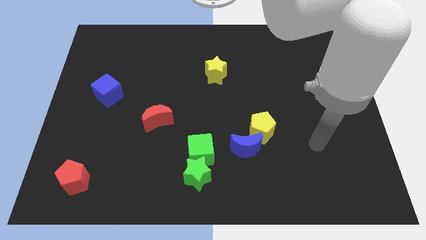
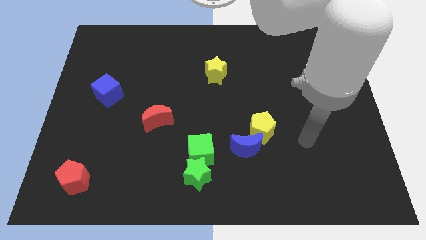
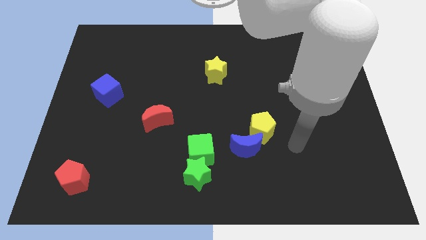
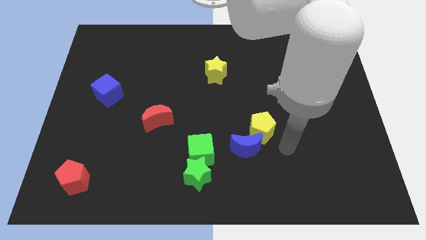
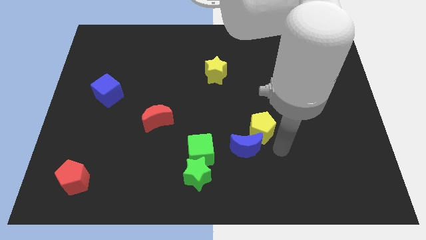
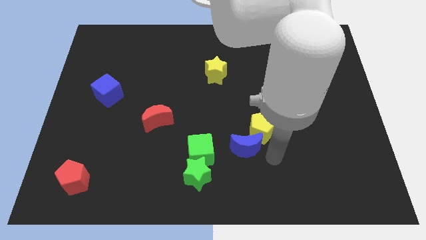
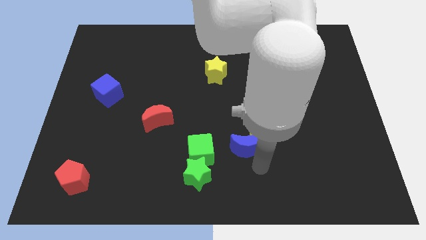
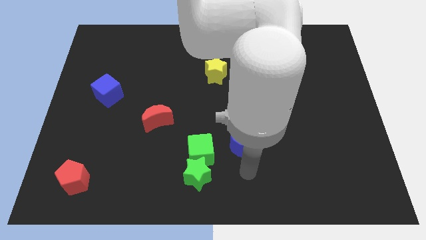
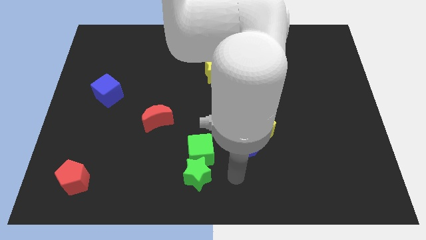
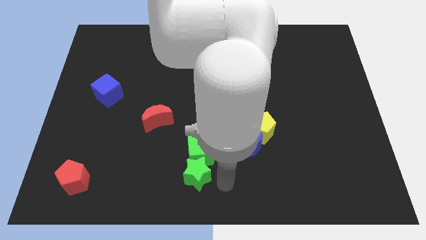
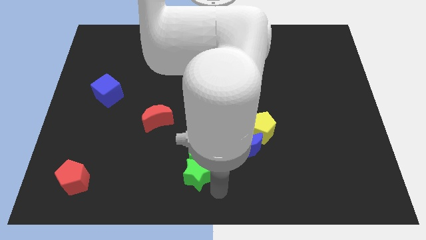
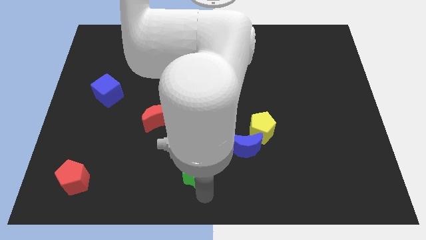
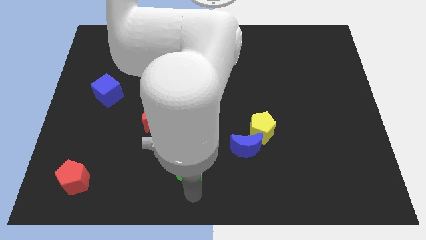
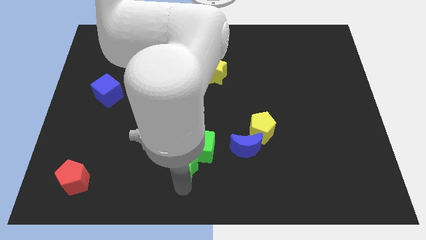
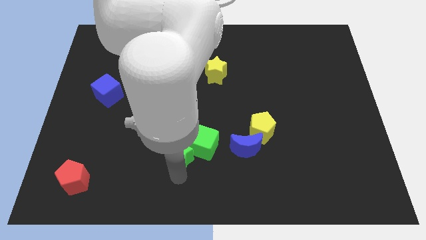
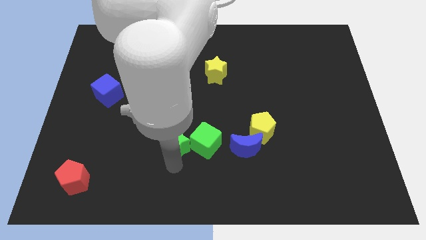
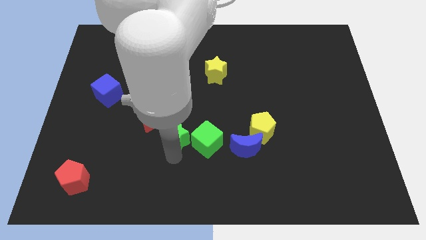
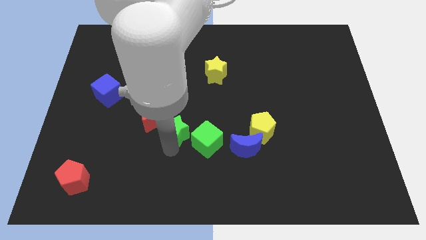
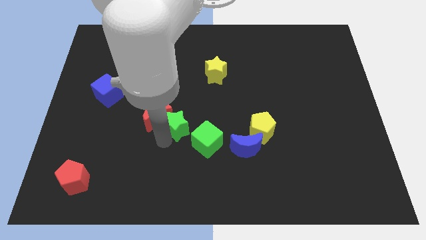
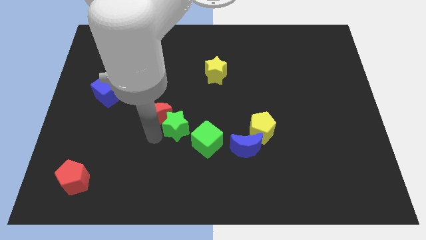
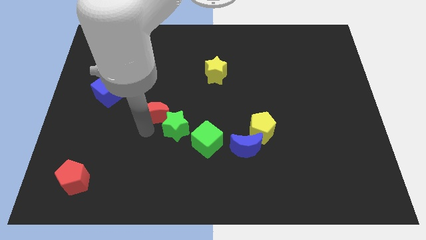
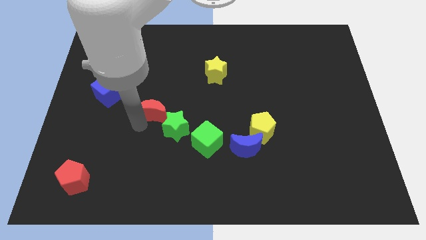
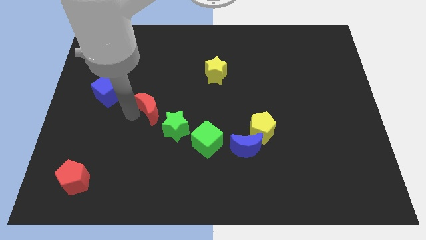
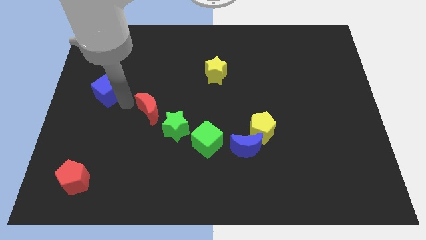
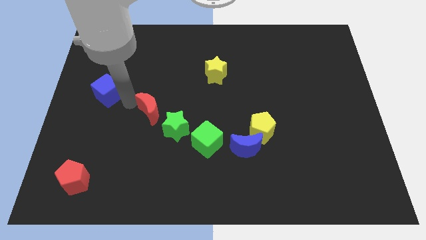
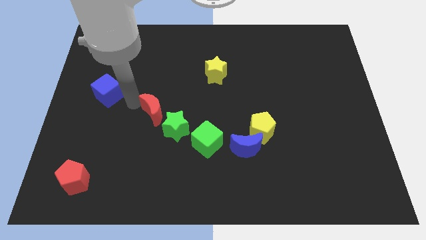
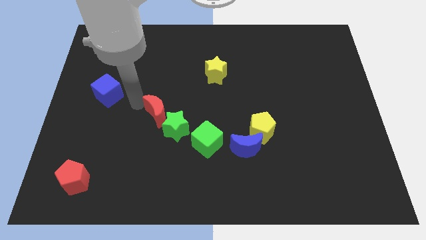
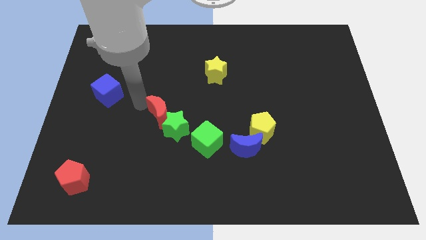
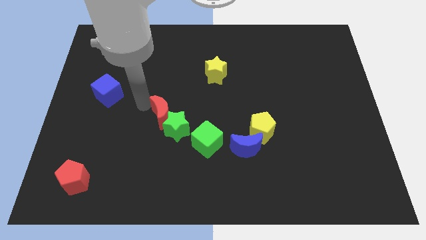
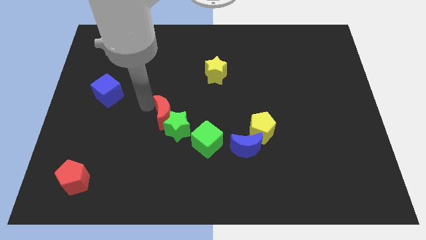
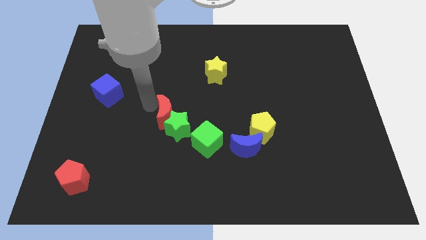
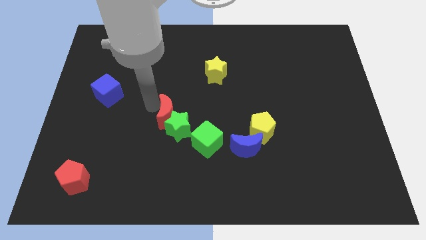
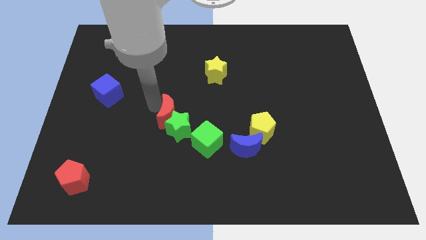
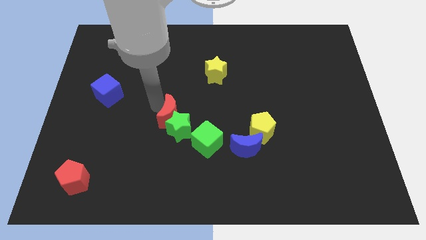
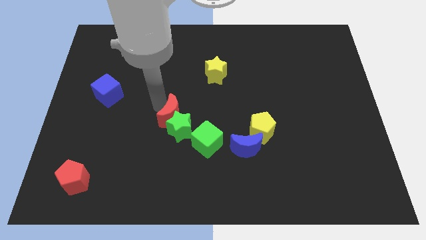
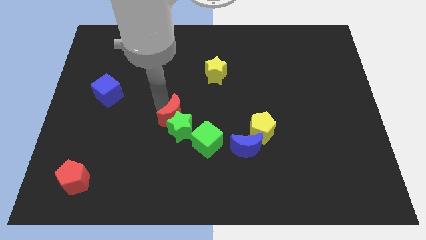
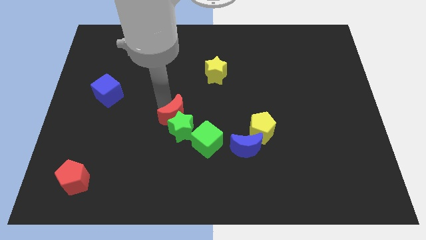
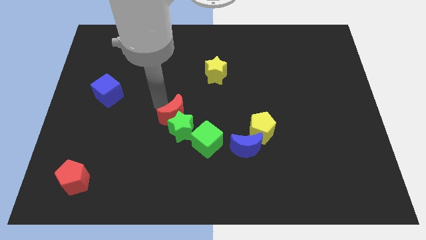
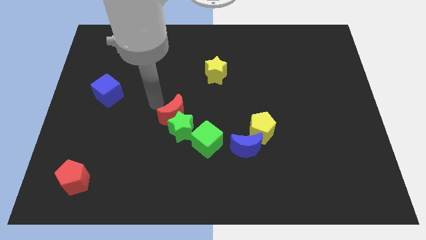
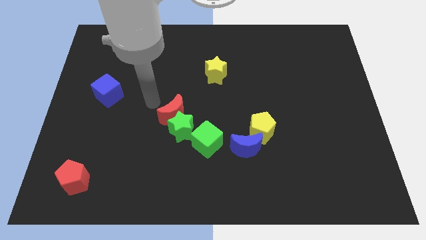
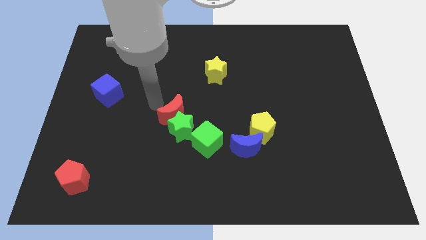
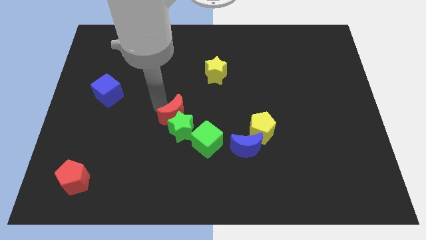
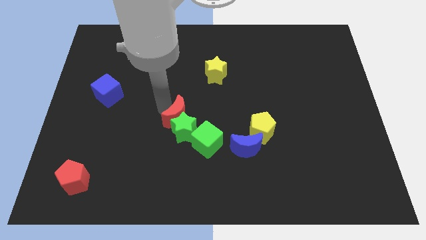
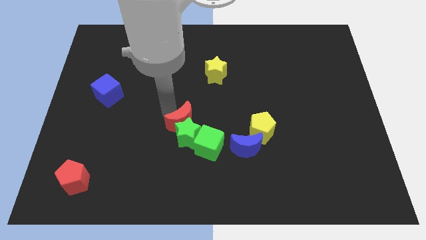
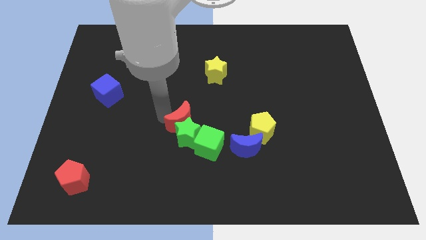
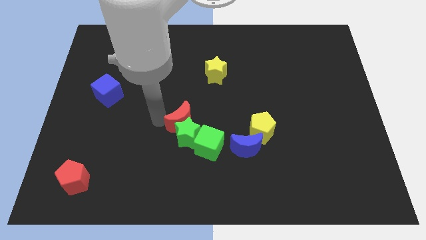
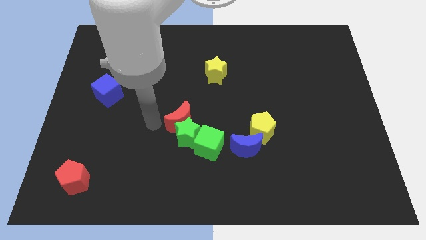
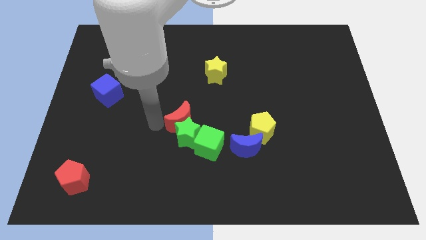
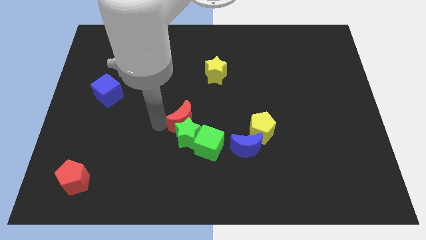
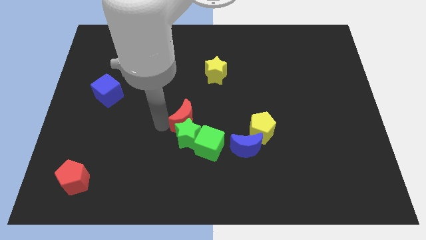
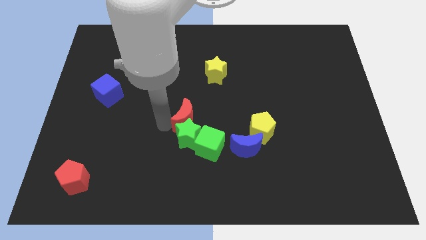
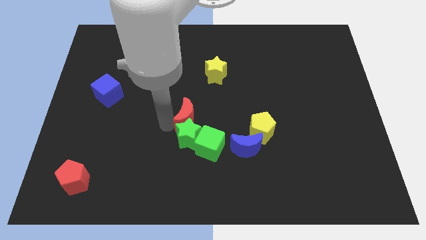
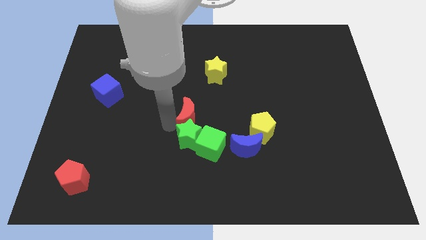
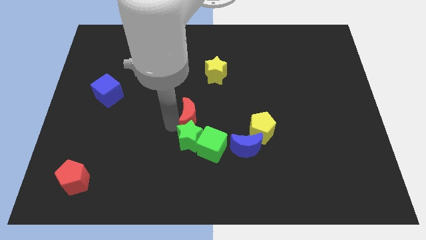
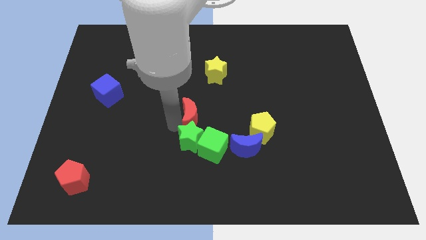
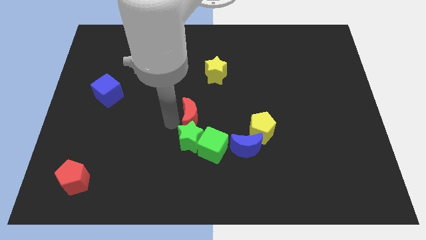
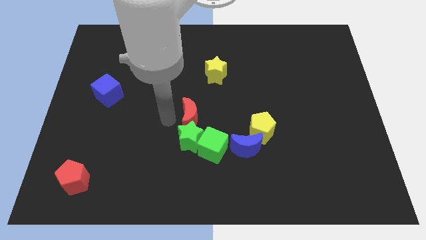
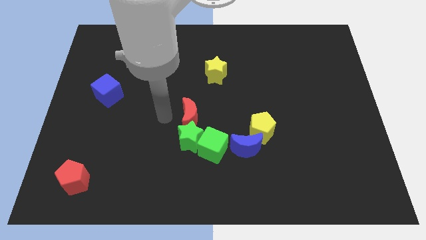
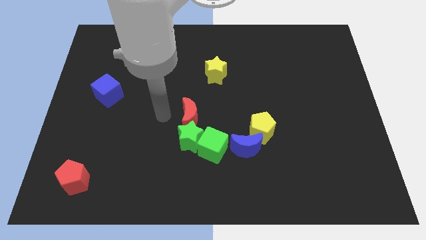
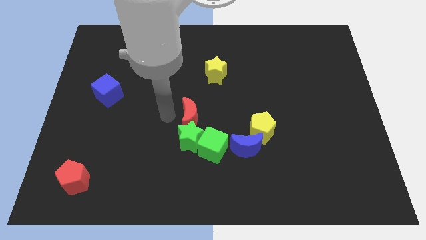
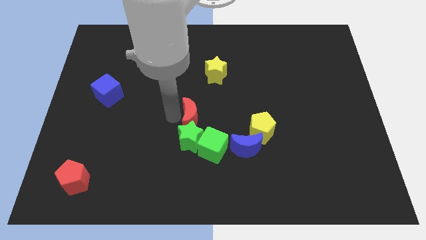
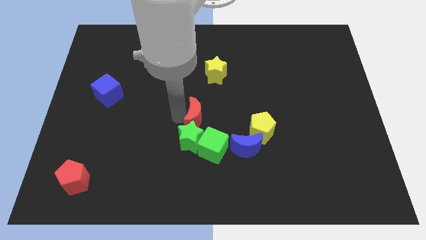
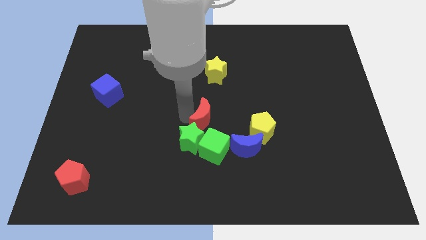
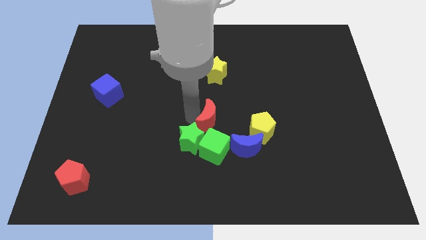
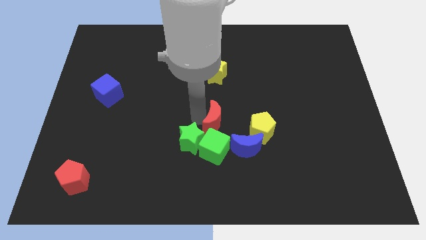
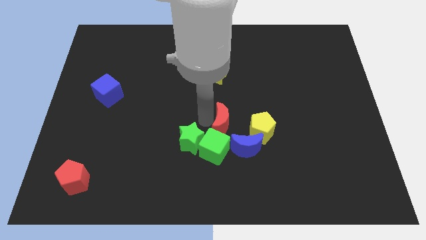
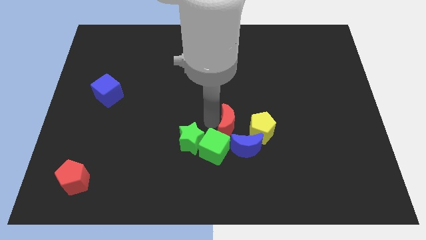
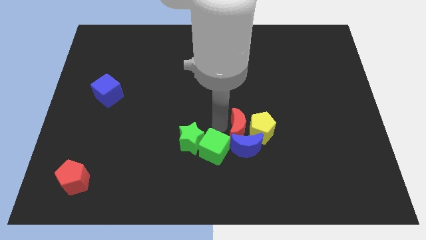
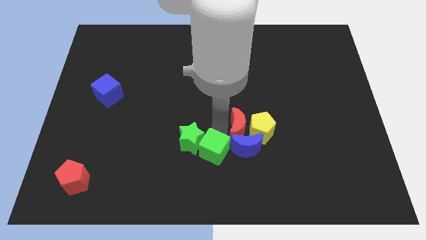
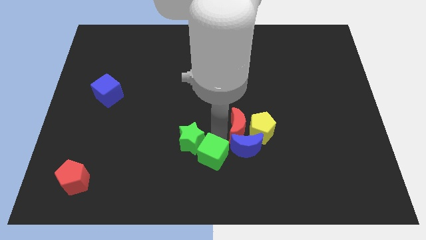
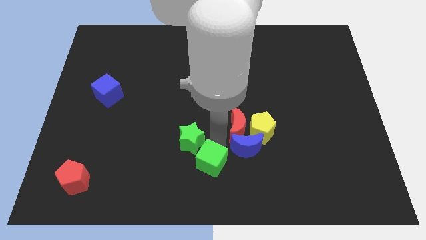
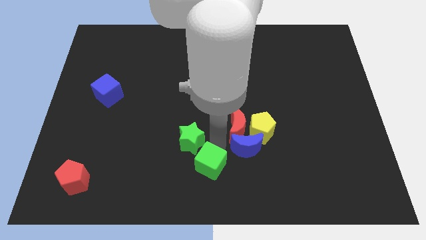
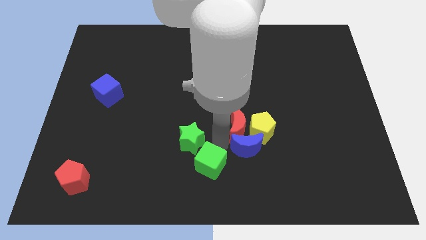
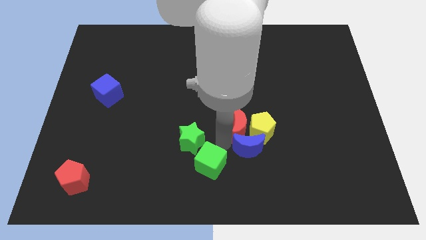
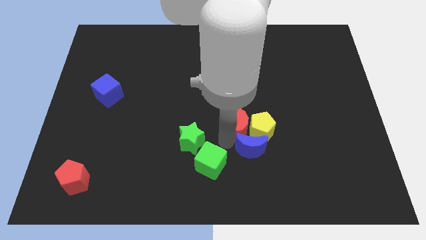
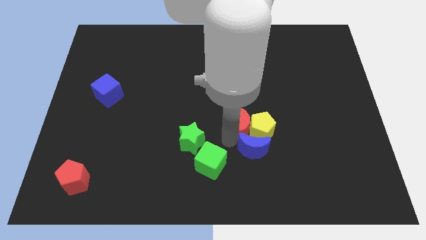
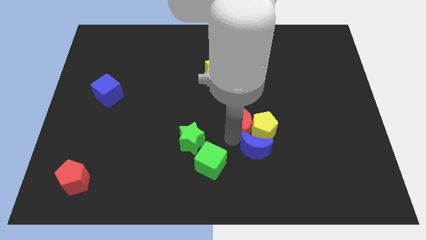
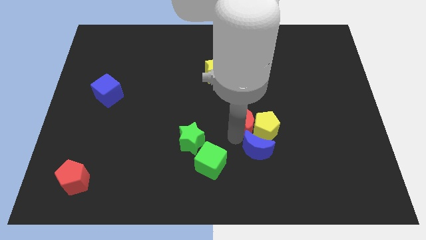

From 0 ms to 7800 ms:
push the red moon to the right

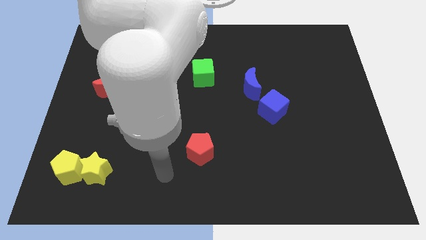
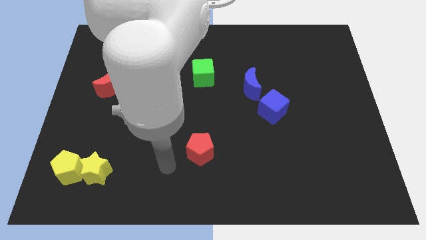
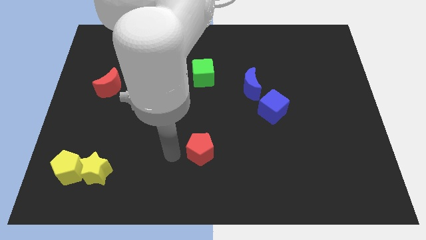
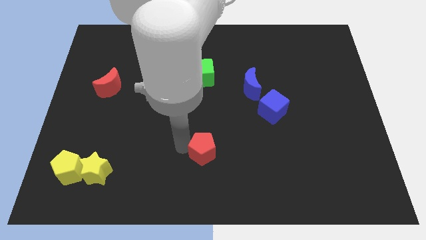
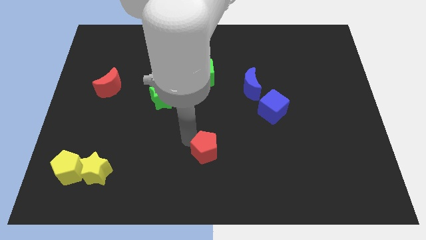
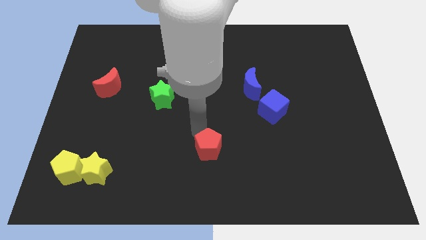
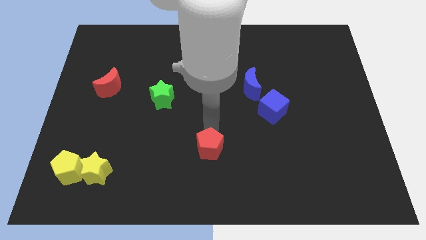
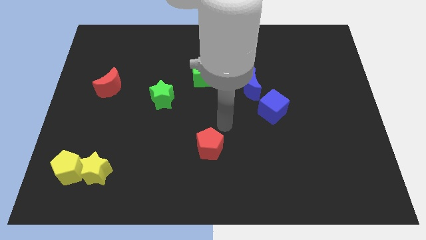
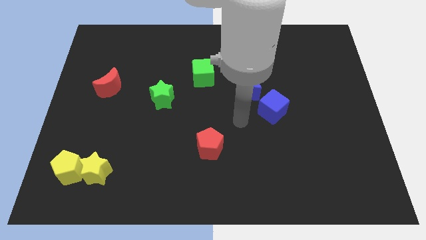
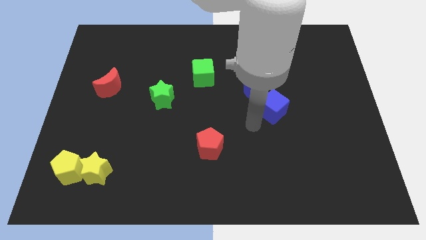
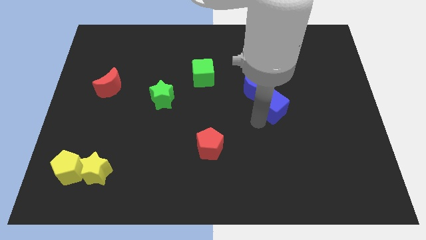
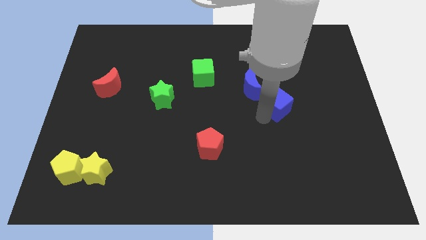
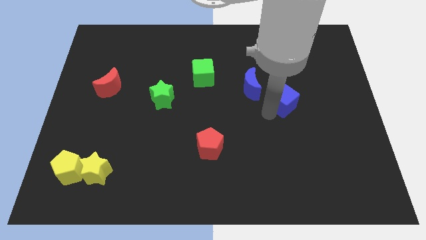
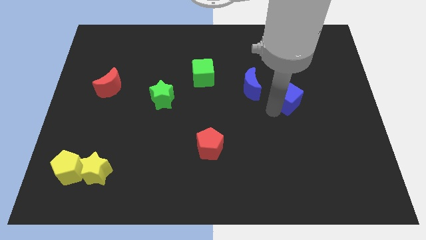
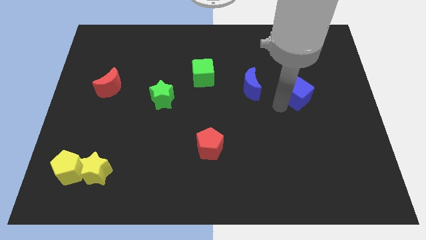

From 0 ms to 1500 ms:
slide the blue cube upwards and then to the right slightly
